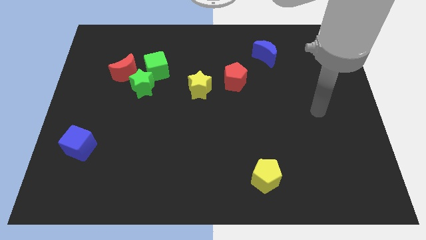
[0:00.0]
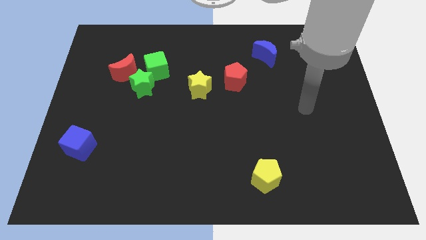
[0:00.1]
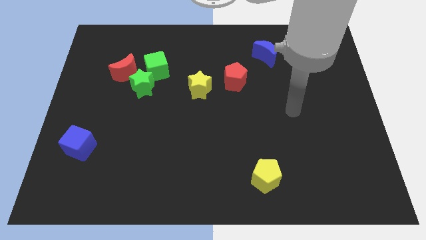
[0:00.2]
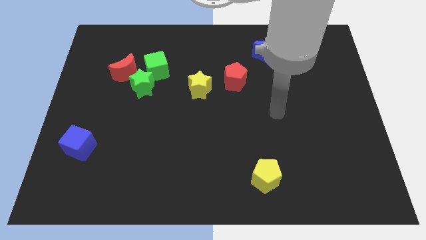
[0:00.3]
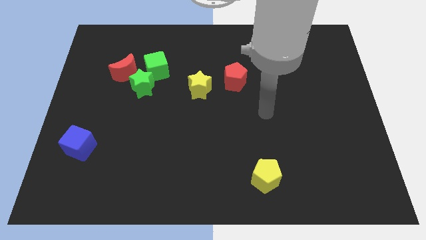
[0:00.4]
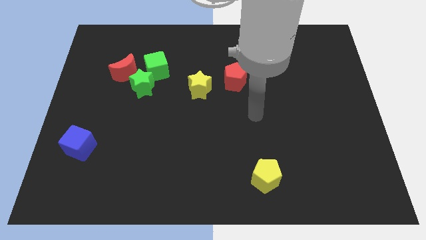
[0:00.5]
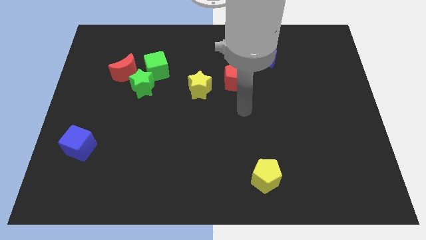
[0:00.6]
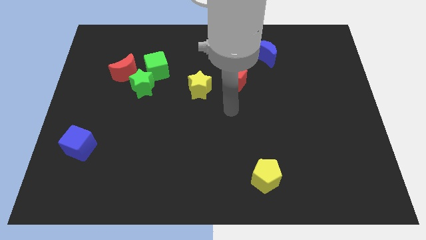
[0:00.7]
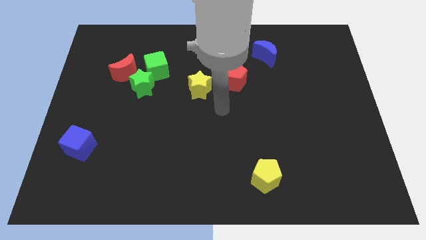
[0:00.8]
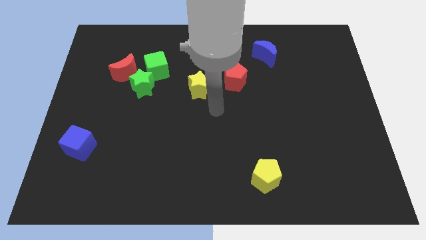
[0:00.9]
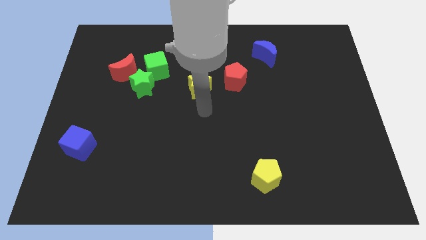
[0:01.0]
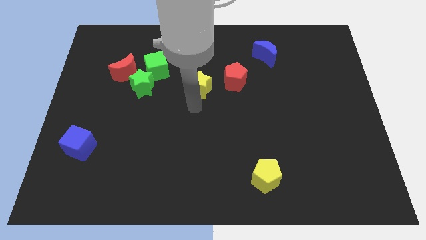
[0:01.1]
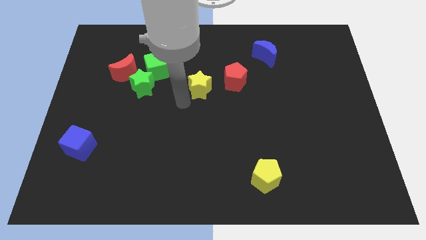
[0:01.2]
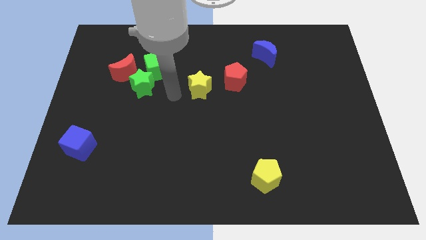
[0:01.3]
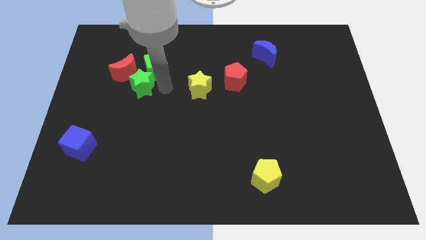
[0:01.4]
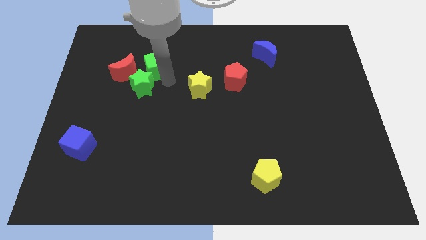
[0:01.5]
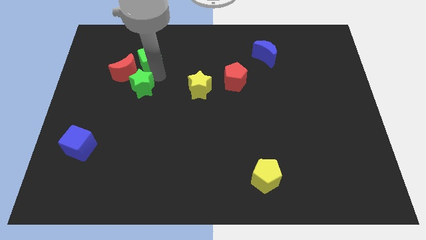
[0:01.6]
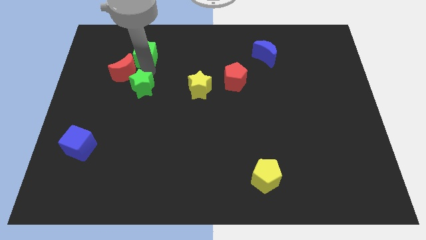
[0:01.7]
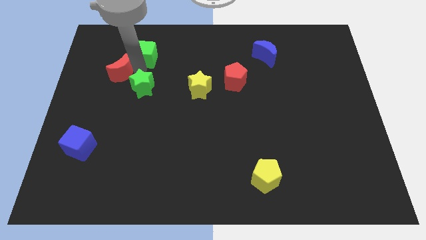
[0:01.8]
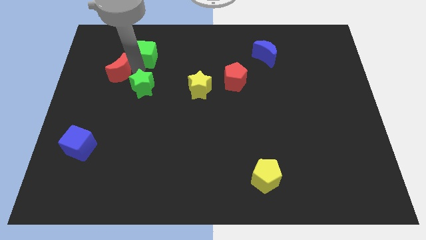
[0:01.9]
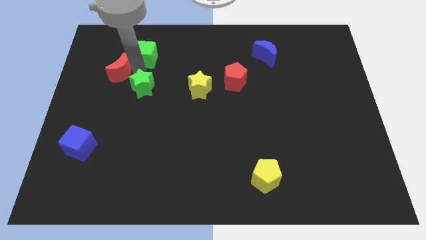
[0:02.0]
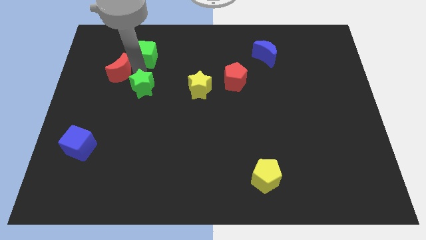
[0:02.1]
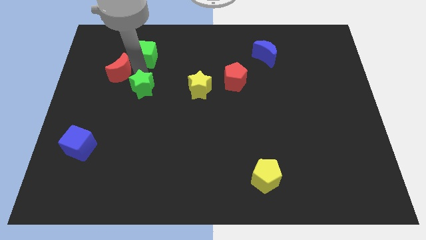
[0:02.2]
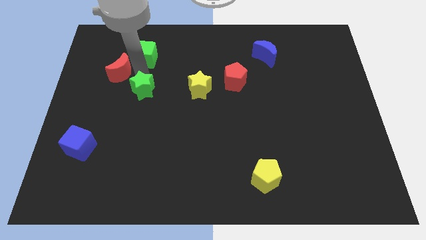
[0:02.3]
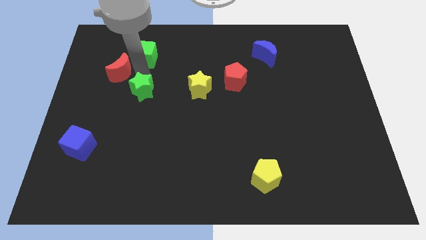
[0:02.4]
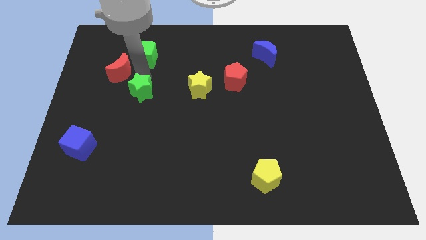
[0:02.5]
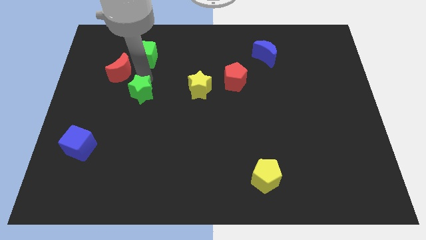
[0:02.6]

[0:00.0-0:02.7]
separate the green star from the green cube and red moon

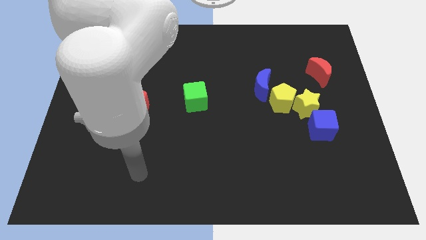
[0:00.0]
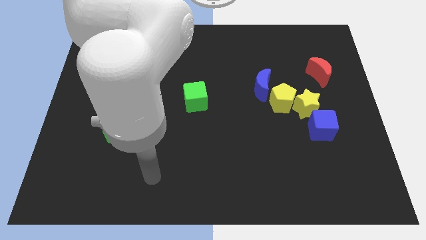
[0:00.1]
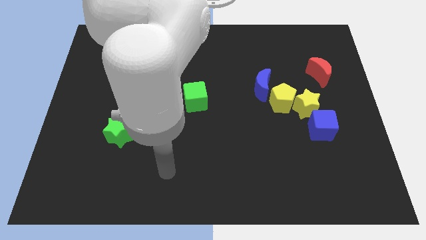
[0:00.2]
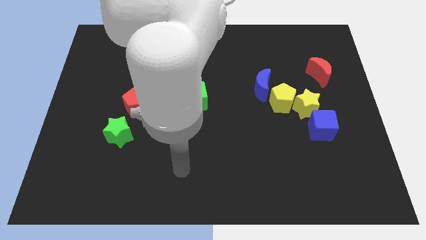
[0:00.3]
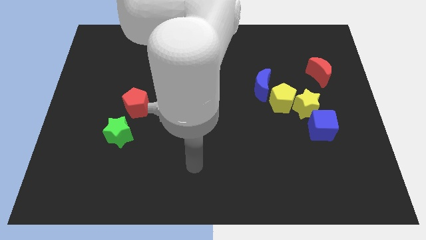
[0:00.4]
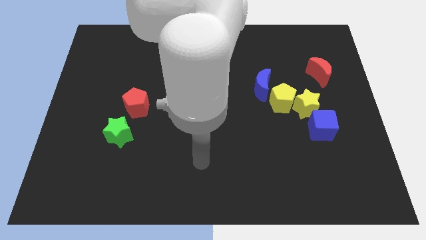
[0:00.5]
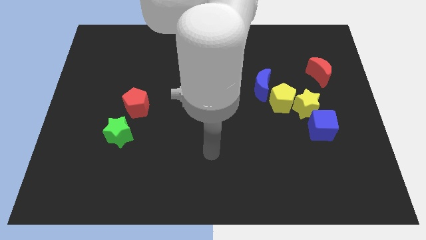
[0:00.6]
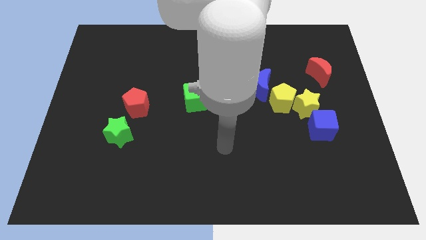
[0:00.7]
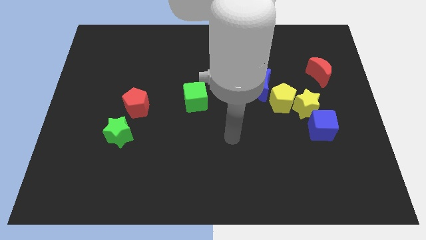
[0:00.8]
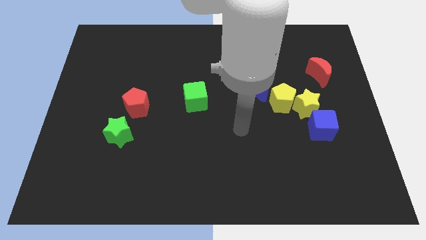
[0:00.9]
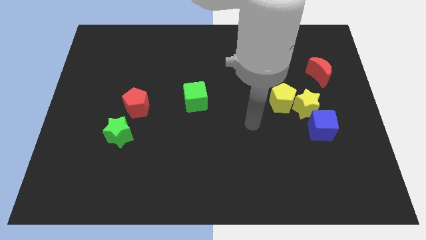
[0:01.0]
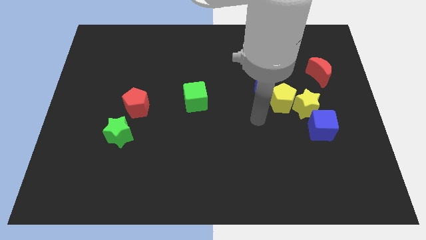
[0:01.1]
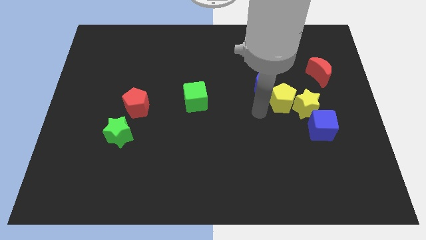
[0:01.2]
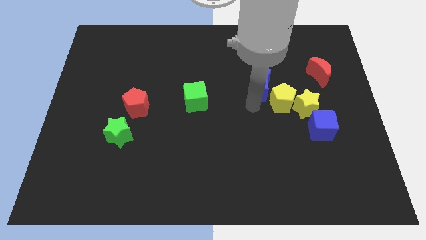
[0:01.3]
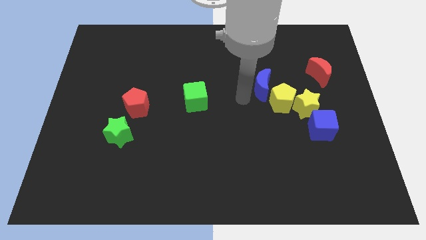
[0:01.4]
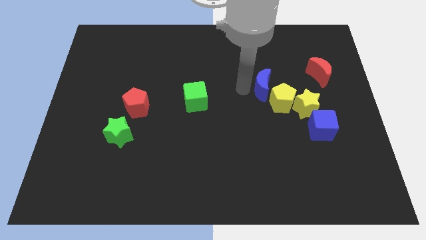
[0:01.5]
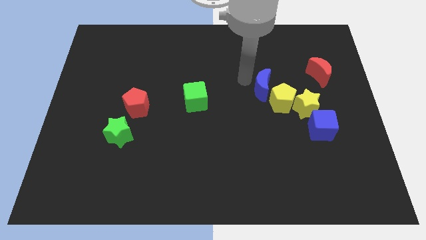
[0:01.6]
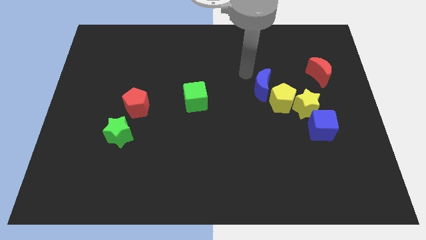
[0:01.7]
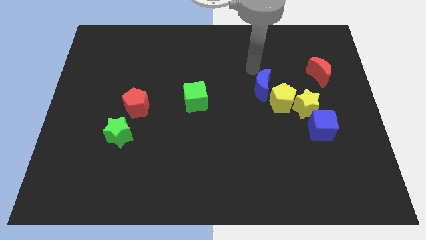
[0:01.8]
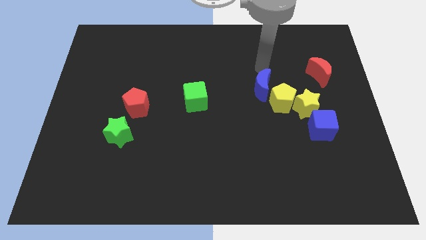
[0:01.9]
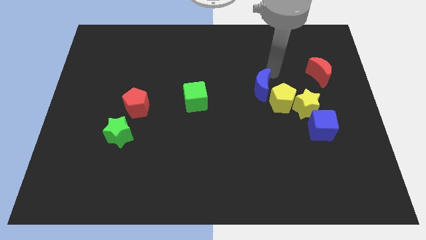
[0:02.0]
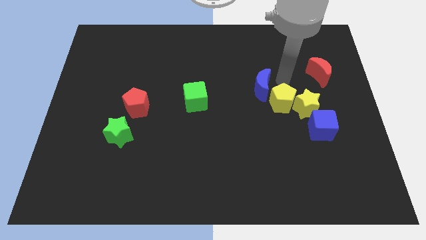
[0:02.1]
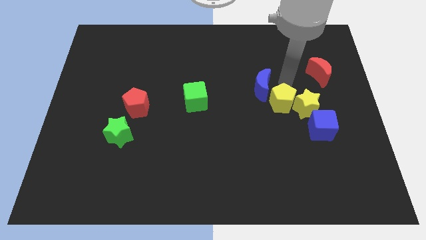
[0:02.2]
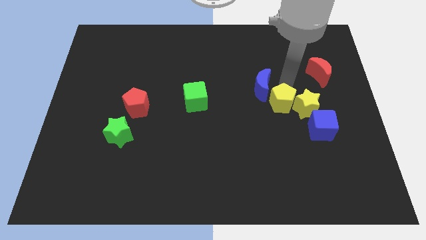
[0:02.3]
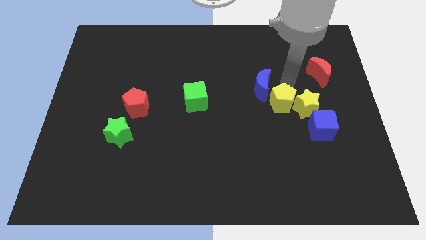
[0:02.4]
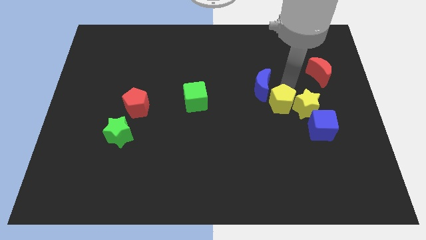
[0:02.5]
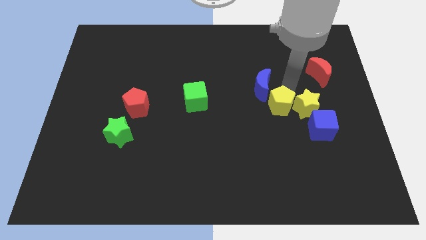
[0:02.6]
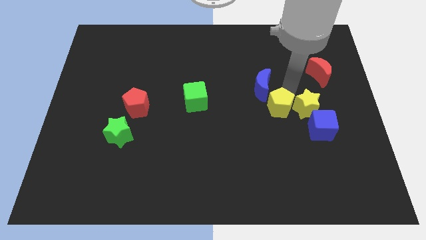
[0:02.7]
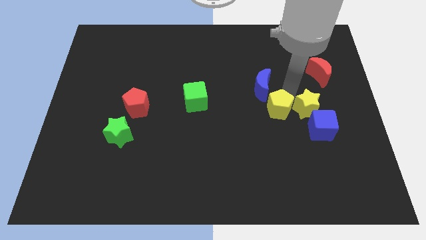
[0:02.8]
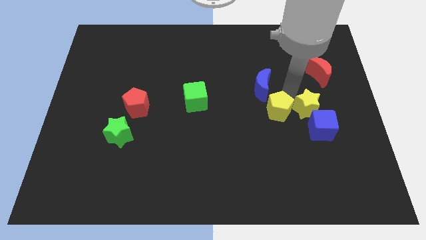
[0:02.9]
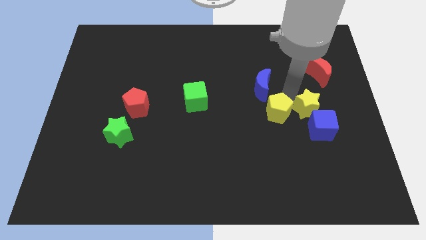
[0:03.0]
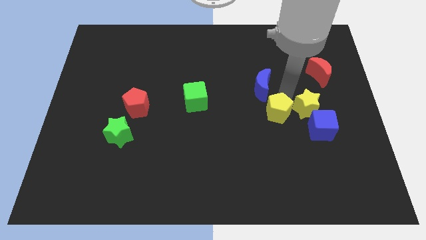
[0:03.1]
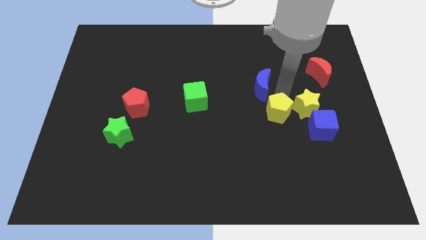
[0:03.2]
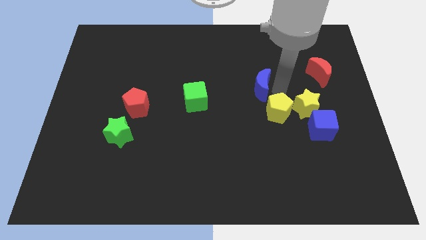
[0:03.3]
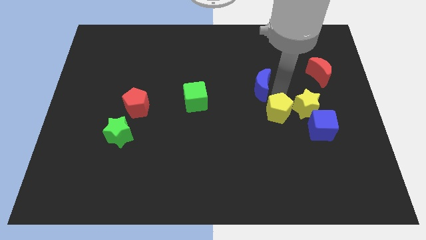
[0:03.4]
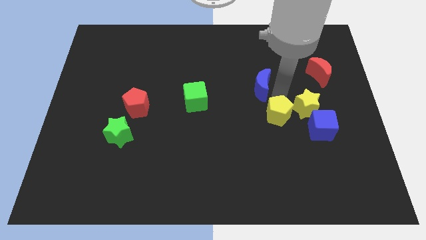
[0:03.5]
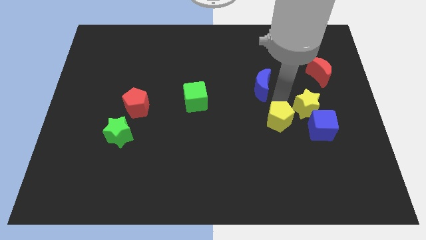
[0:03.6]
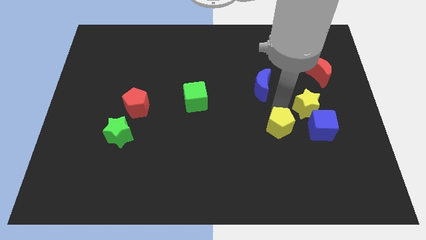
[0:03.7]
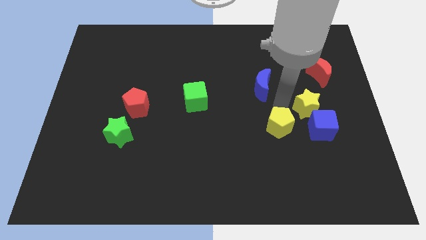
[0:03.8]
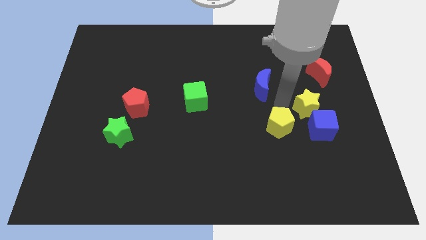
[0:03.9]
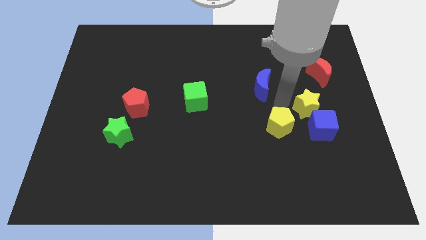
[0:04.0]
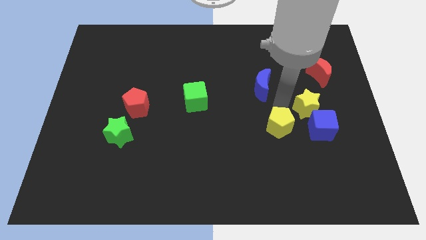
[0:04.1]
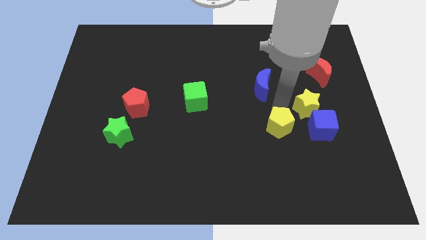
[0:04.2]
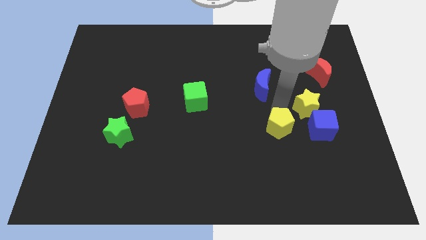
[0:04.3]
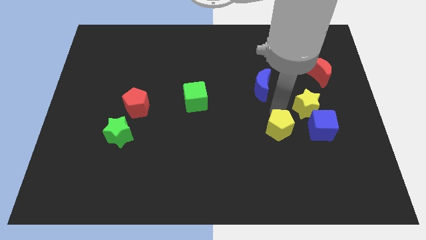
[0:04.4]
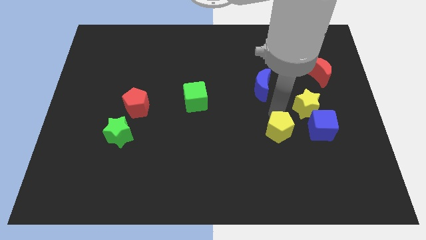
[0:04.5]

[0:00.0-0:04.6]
move the yellow pentagon away from the yellow star and blue moon

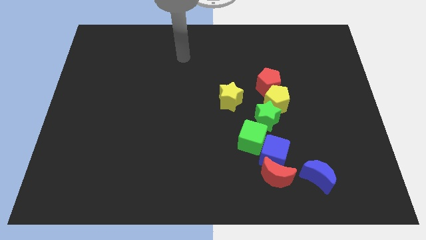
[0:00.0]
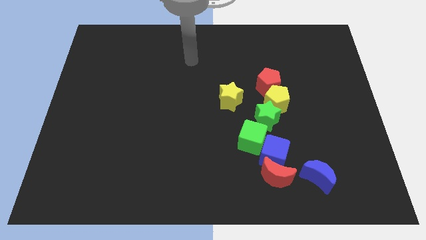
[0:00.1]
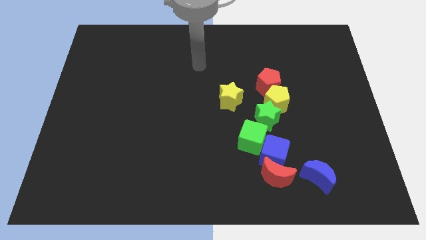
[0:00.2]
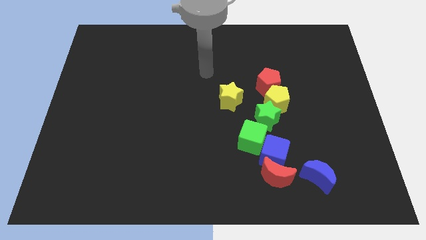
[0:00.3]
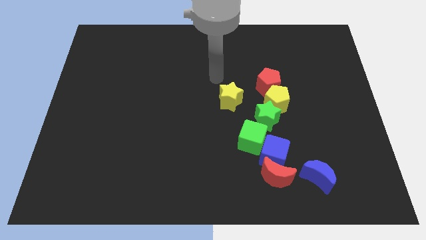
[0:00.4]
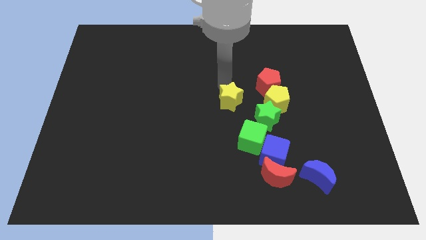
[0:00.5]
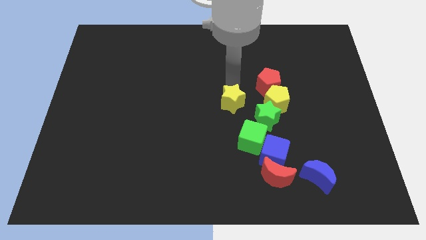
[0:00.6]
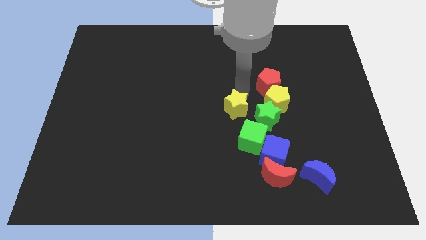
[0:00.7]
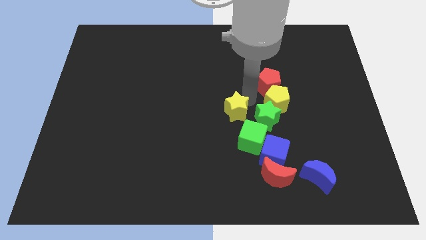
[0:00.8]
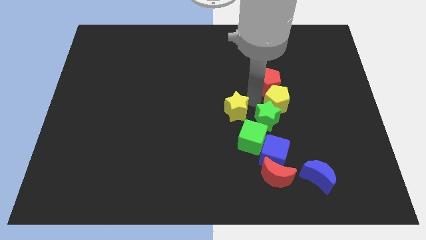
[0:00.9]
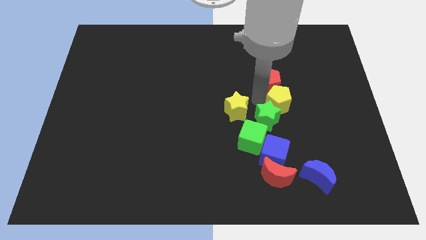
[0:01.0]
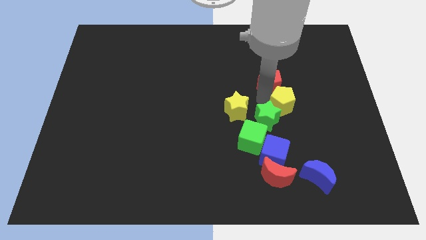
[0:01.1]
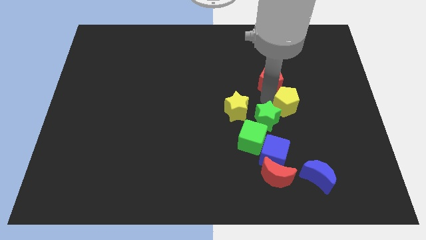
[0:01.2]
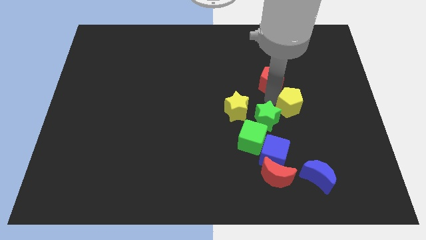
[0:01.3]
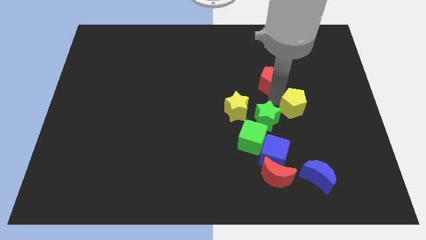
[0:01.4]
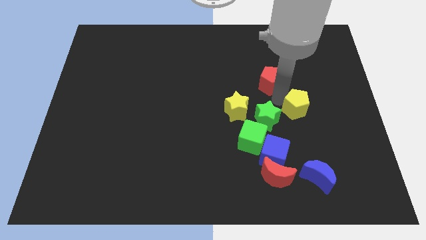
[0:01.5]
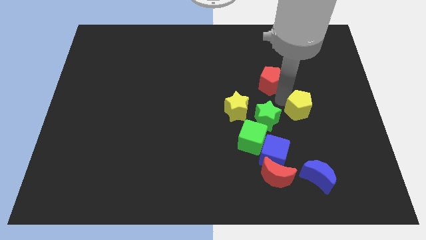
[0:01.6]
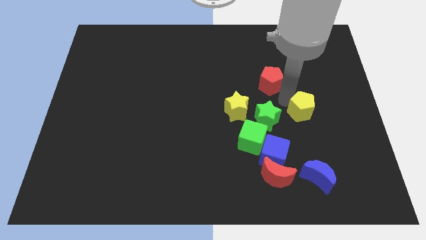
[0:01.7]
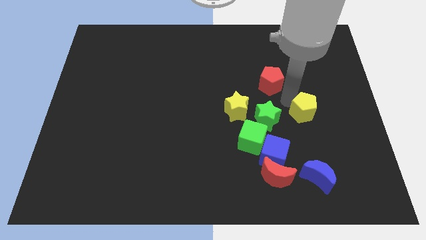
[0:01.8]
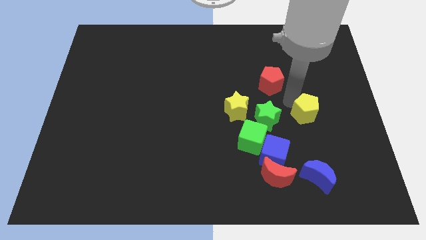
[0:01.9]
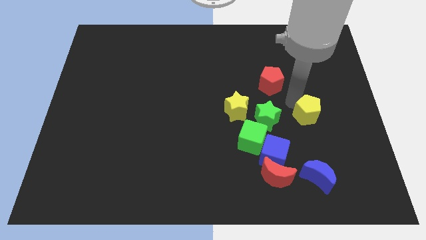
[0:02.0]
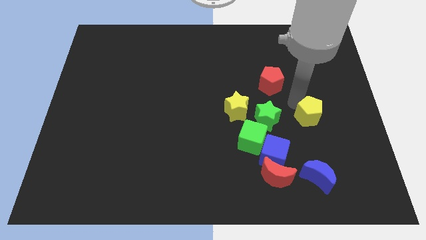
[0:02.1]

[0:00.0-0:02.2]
separate the yellow pentagon from the green star and red pentagon
